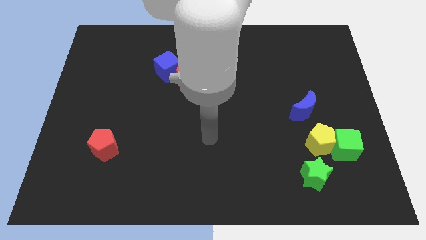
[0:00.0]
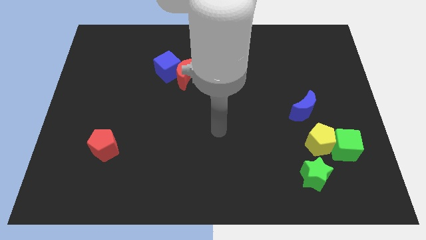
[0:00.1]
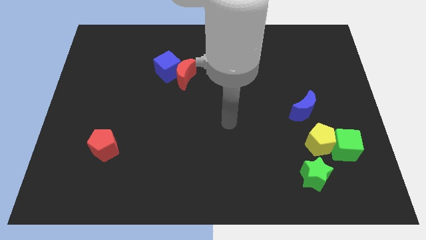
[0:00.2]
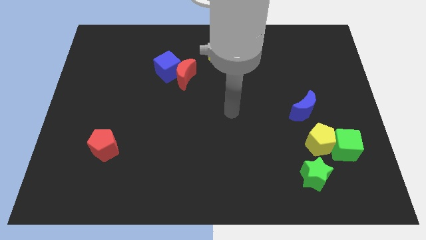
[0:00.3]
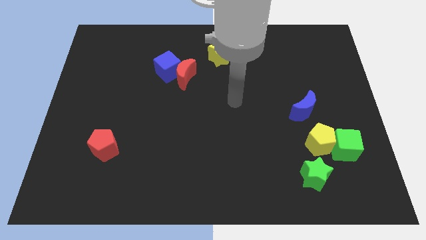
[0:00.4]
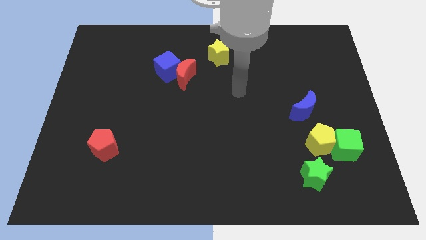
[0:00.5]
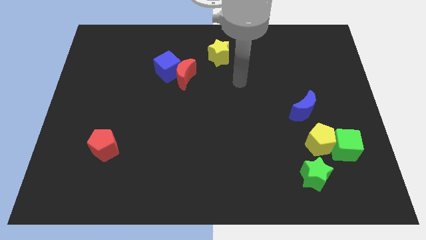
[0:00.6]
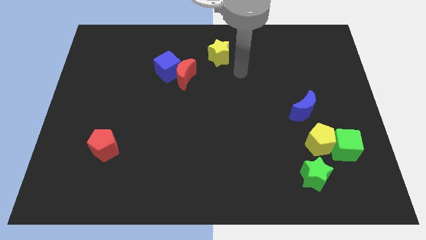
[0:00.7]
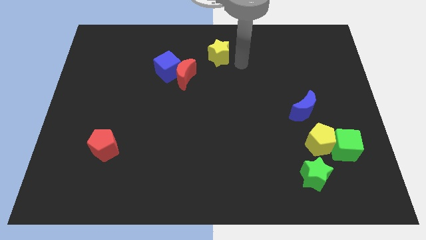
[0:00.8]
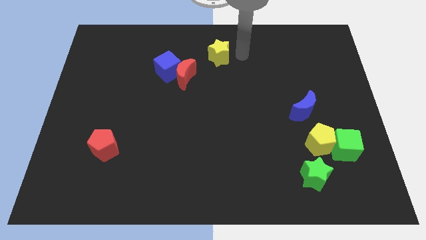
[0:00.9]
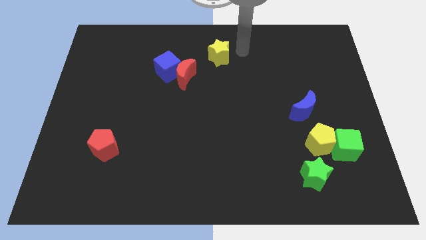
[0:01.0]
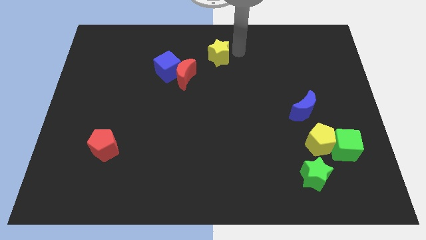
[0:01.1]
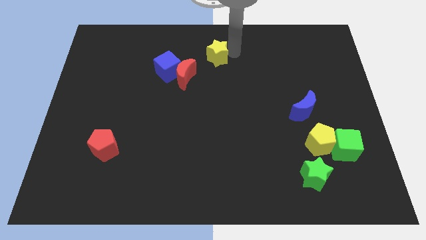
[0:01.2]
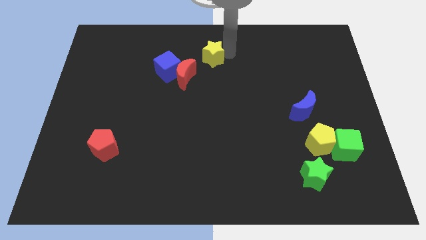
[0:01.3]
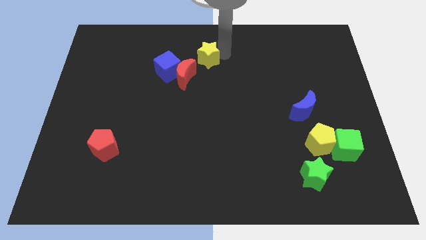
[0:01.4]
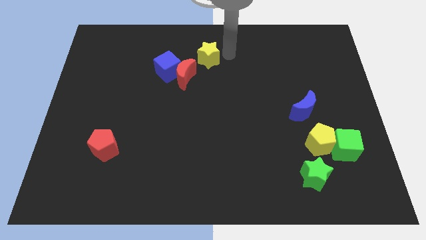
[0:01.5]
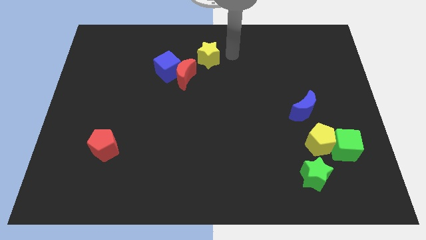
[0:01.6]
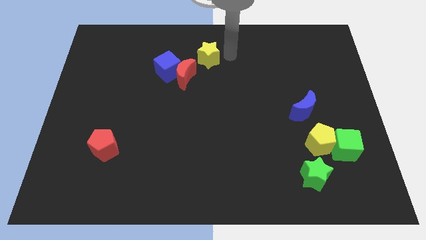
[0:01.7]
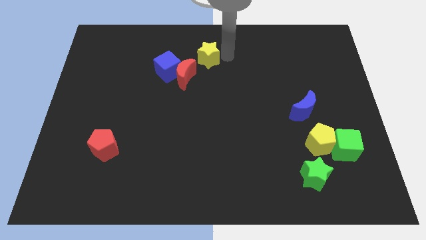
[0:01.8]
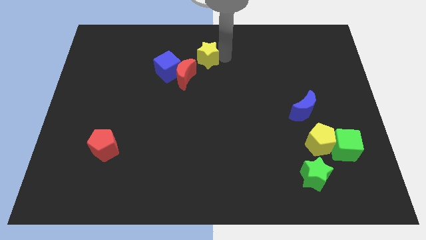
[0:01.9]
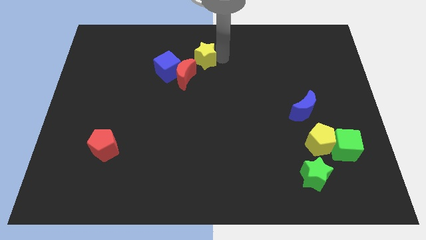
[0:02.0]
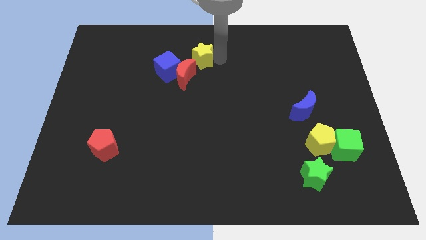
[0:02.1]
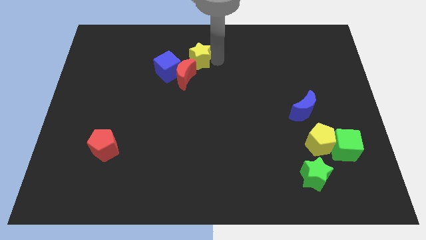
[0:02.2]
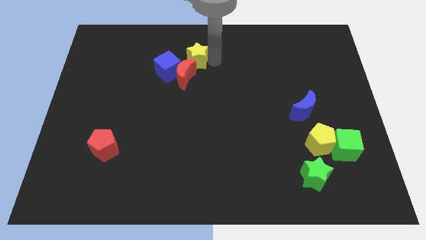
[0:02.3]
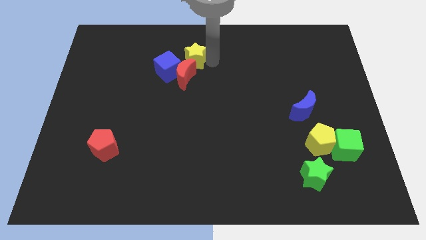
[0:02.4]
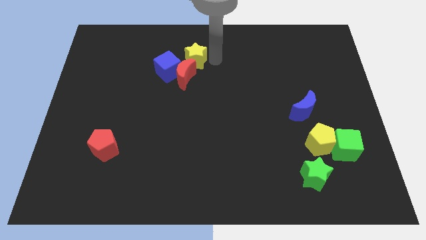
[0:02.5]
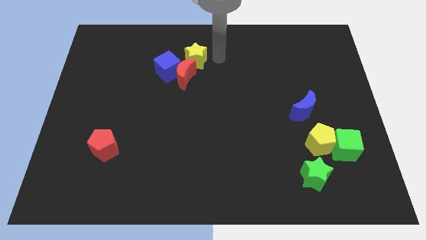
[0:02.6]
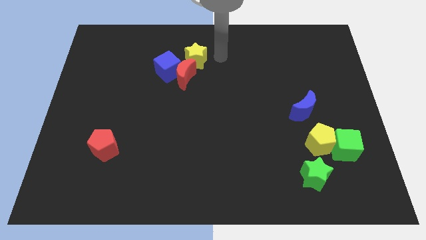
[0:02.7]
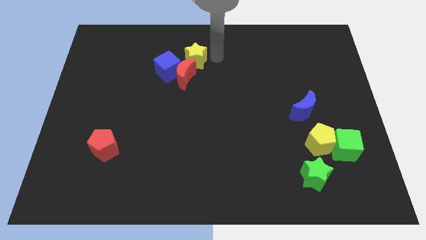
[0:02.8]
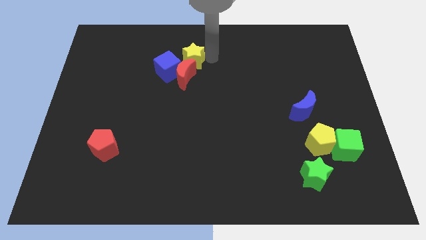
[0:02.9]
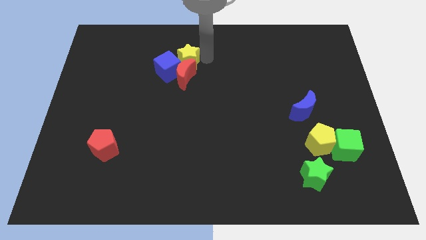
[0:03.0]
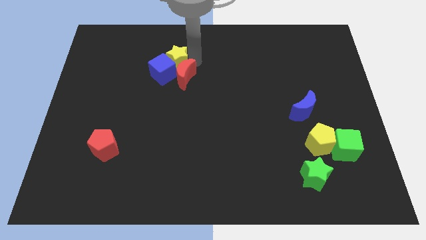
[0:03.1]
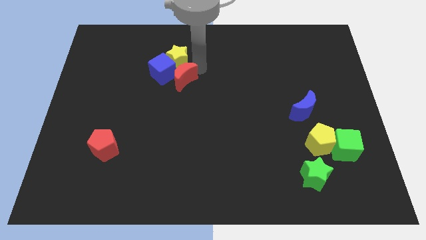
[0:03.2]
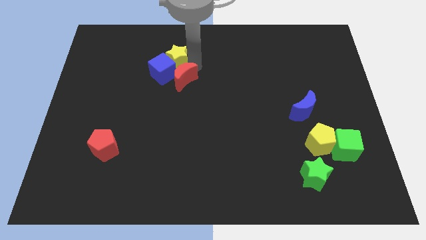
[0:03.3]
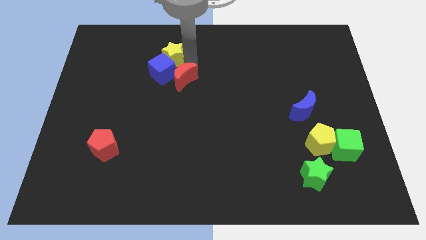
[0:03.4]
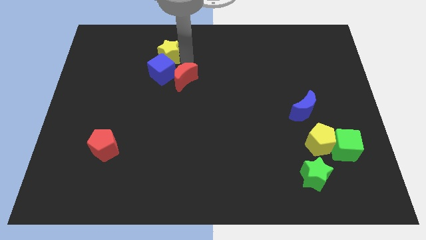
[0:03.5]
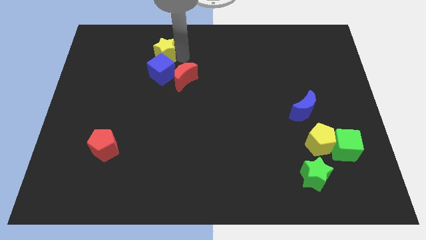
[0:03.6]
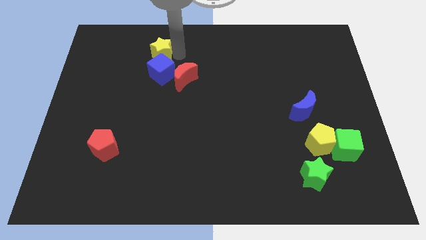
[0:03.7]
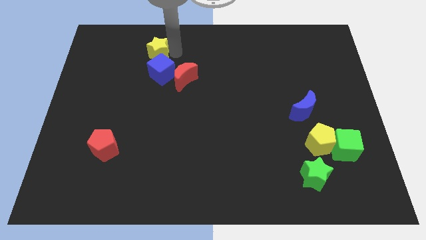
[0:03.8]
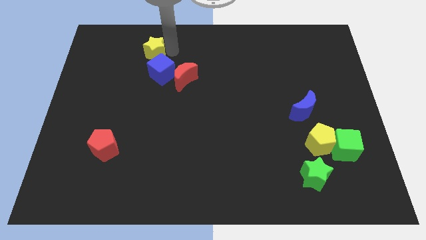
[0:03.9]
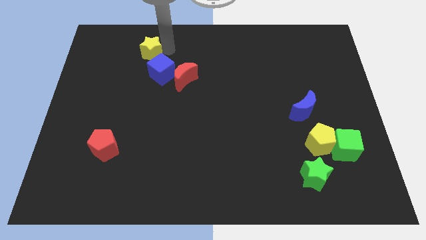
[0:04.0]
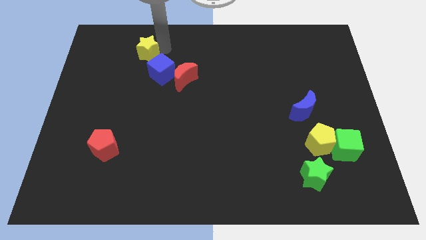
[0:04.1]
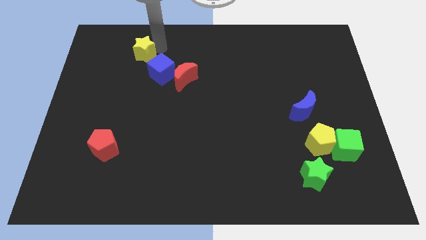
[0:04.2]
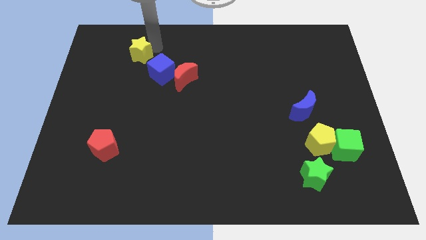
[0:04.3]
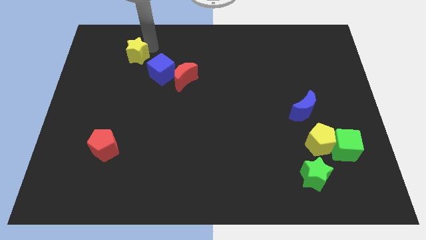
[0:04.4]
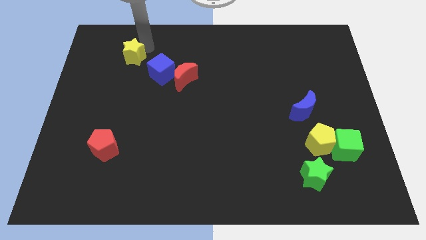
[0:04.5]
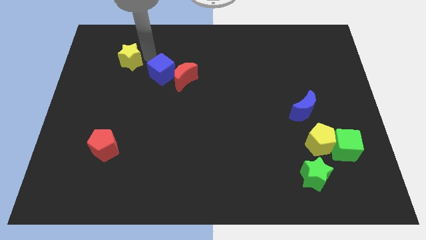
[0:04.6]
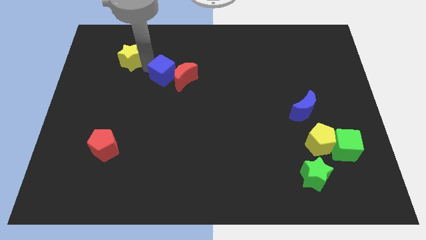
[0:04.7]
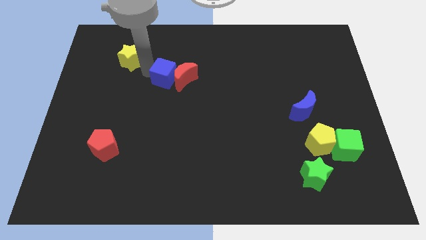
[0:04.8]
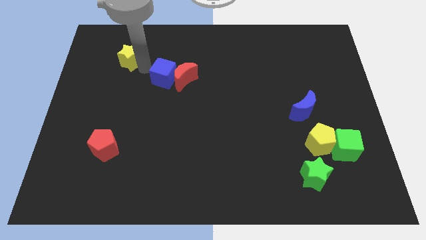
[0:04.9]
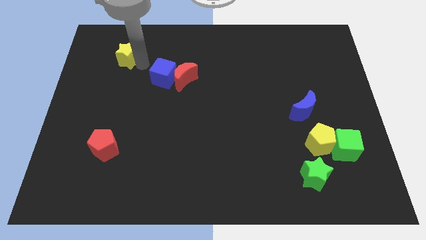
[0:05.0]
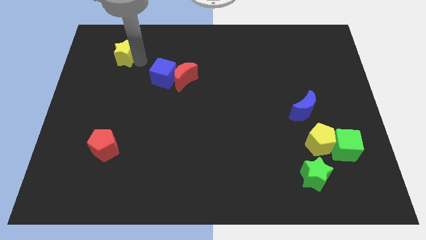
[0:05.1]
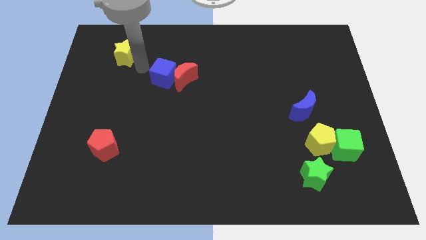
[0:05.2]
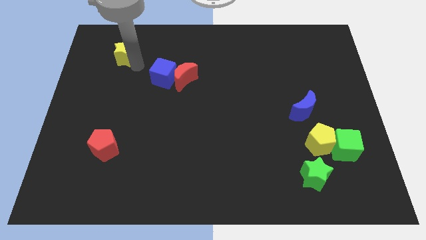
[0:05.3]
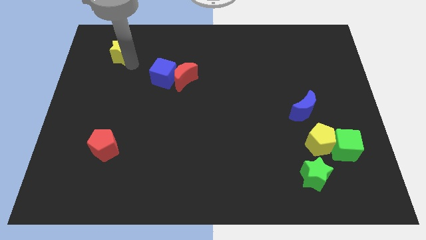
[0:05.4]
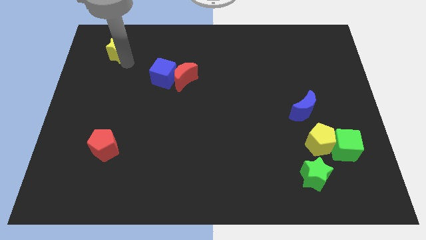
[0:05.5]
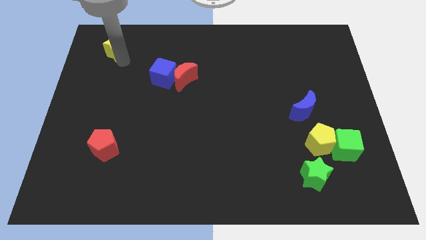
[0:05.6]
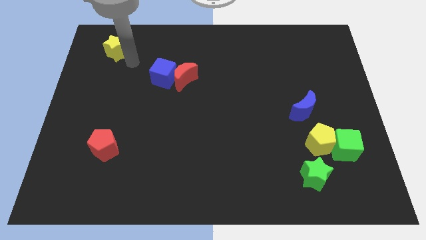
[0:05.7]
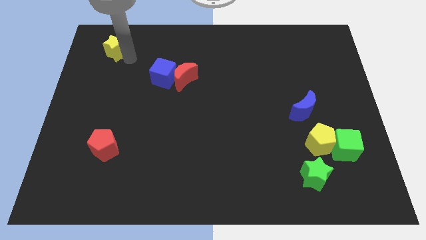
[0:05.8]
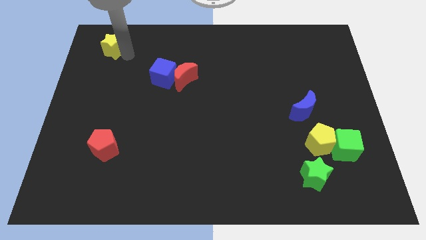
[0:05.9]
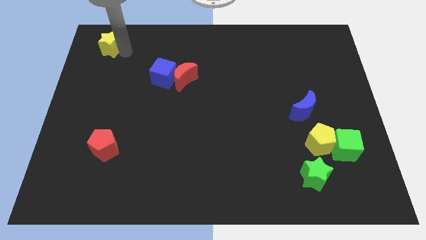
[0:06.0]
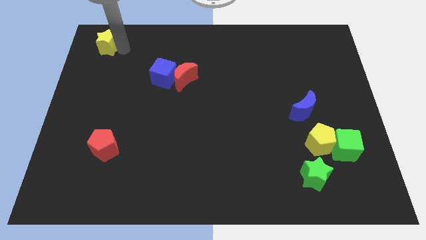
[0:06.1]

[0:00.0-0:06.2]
push the yellow star to the top left of the board

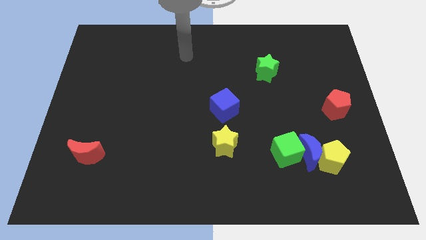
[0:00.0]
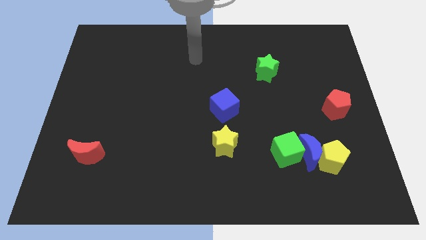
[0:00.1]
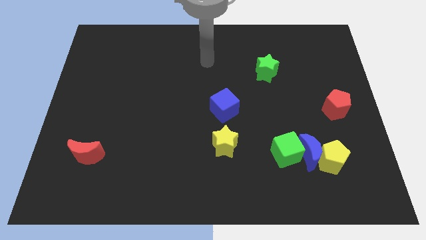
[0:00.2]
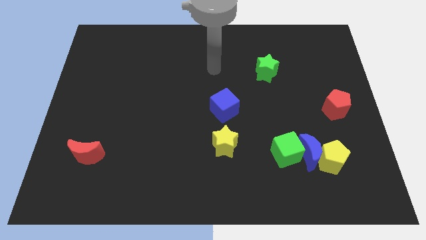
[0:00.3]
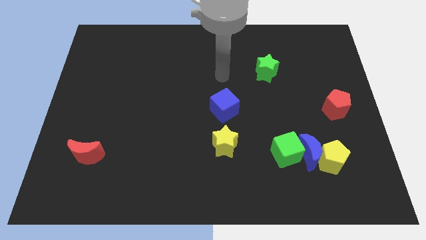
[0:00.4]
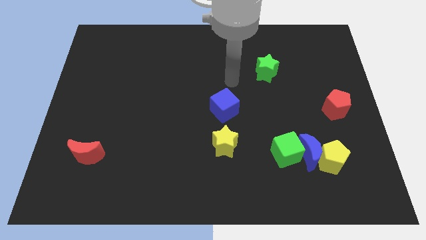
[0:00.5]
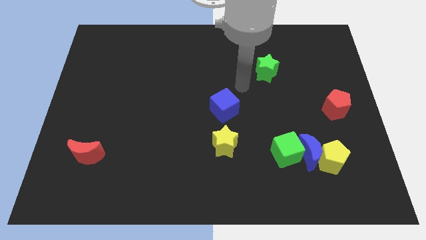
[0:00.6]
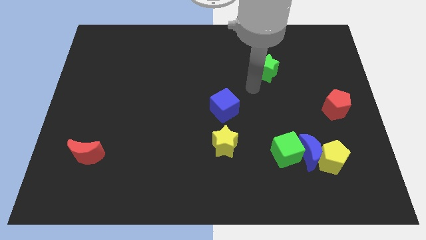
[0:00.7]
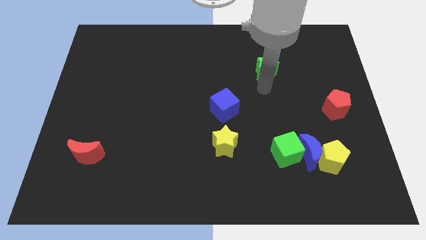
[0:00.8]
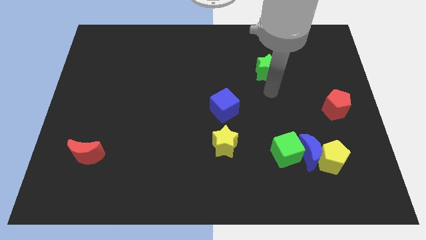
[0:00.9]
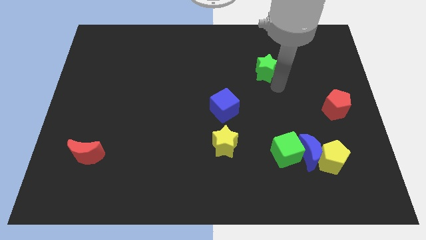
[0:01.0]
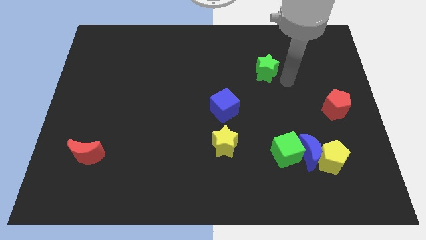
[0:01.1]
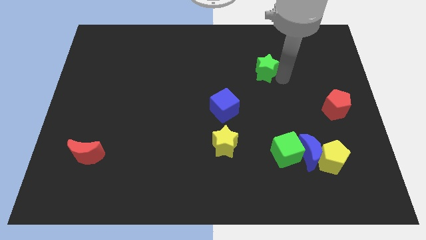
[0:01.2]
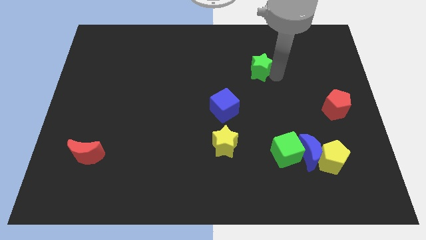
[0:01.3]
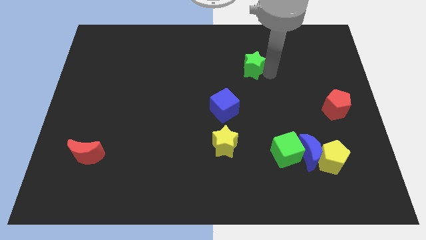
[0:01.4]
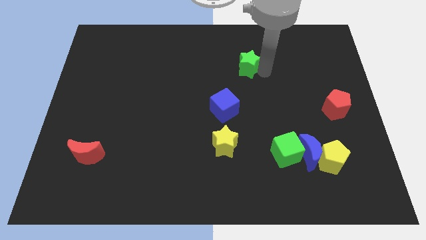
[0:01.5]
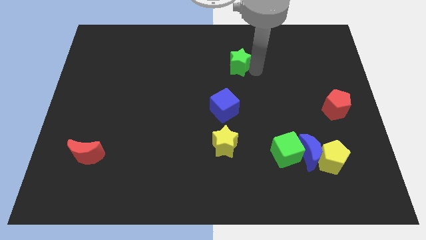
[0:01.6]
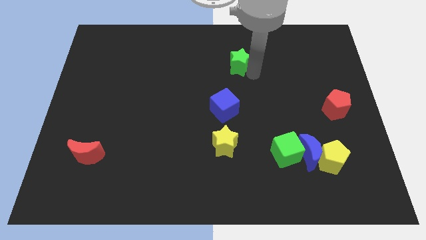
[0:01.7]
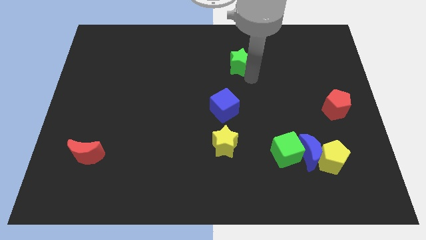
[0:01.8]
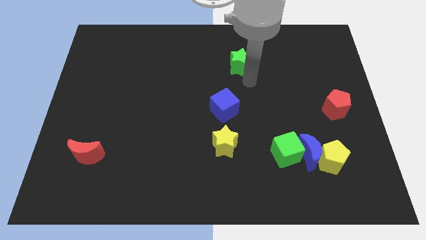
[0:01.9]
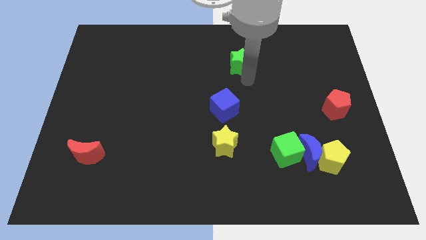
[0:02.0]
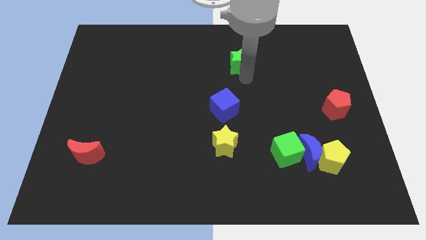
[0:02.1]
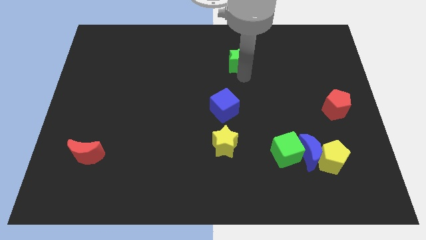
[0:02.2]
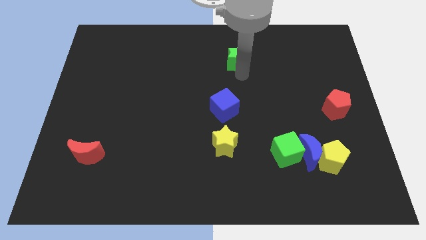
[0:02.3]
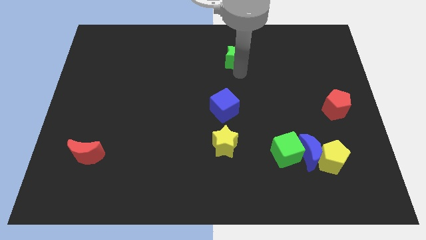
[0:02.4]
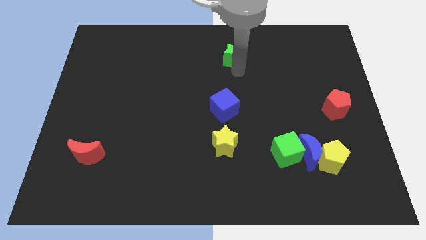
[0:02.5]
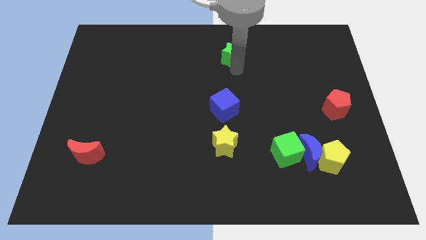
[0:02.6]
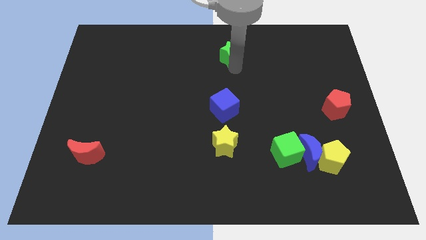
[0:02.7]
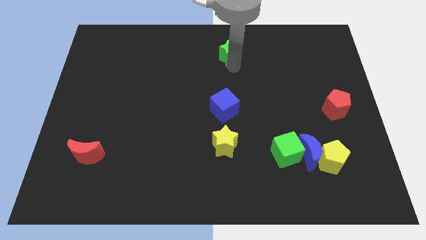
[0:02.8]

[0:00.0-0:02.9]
move the green star to the towards your base
